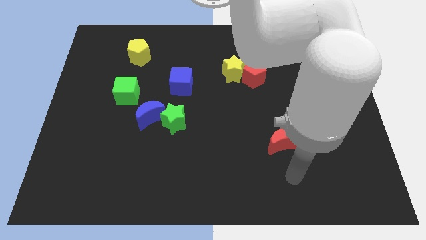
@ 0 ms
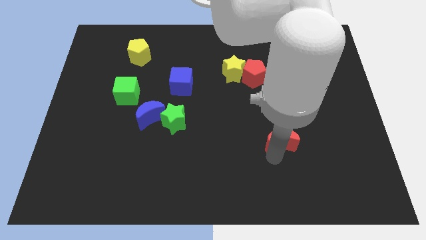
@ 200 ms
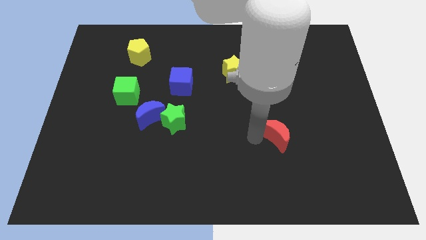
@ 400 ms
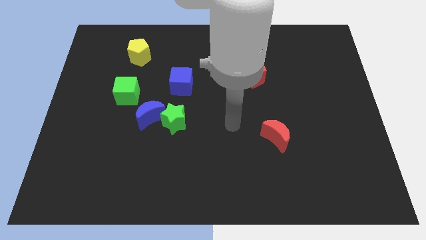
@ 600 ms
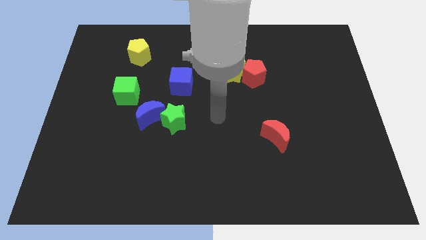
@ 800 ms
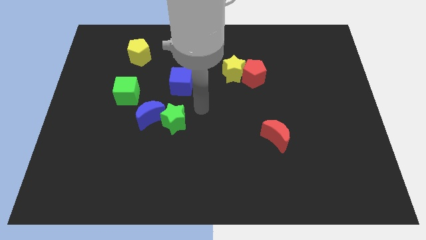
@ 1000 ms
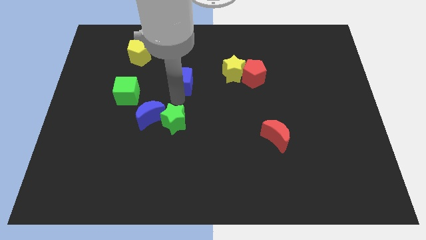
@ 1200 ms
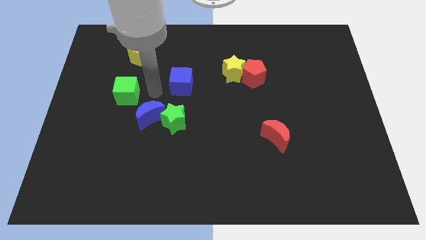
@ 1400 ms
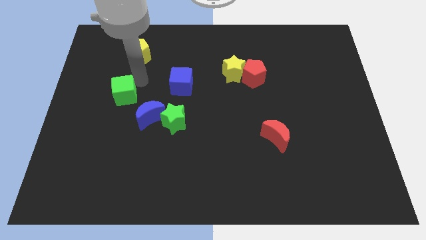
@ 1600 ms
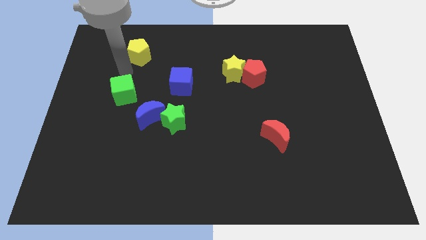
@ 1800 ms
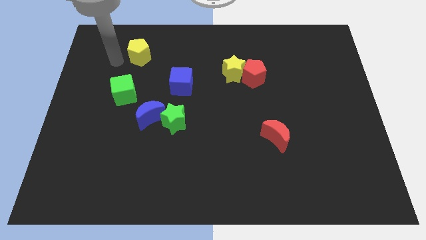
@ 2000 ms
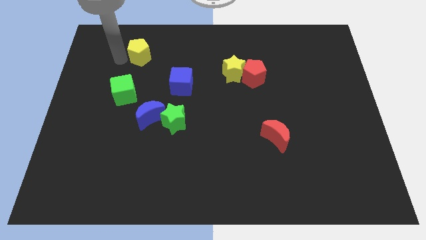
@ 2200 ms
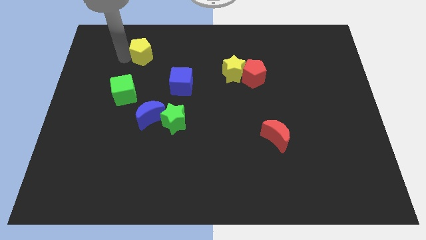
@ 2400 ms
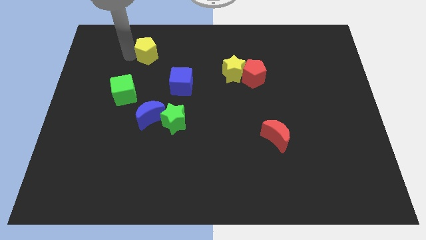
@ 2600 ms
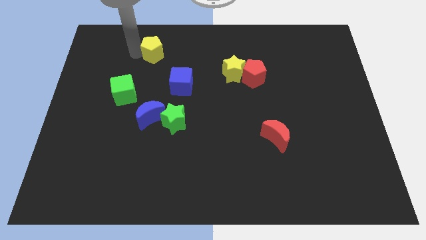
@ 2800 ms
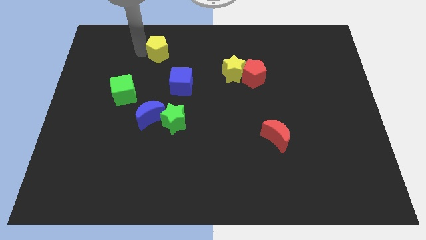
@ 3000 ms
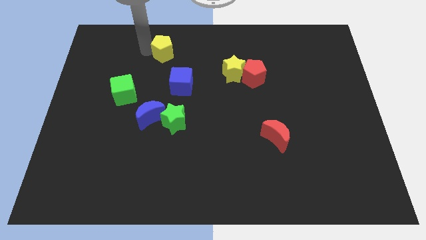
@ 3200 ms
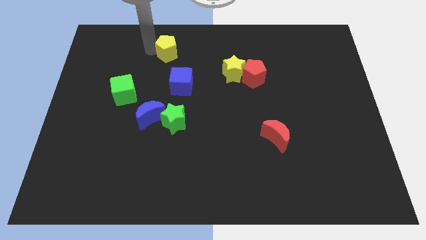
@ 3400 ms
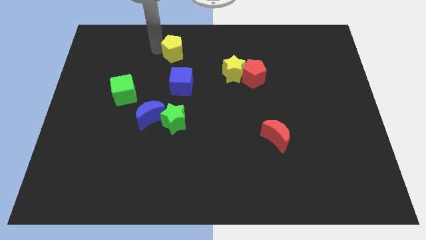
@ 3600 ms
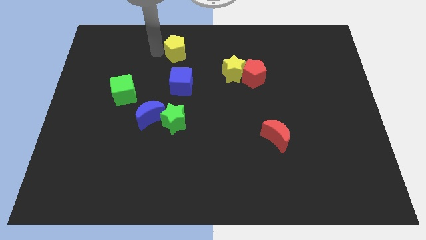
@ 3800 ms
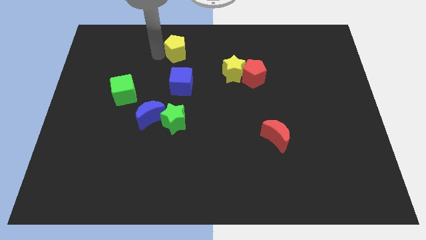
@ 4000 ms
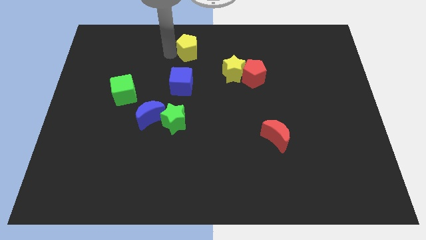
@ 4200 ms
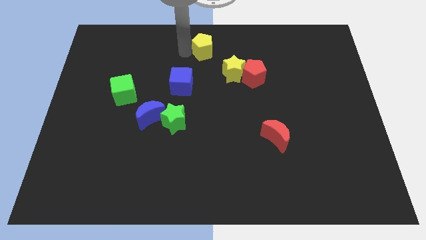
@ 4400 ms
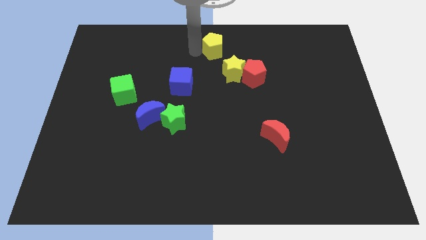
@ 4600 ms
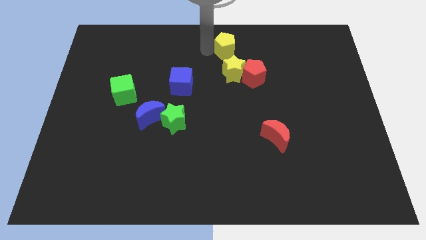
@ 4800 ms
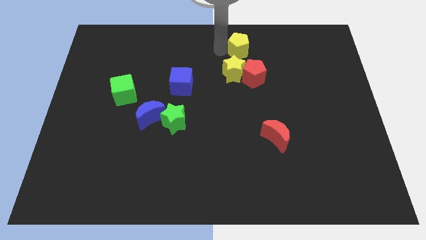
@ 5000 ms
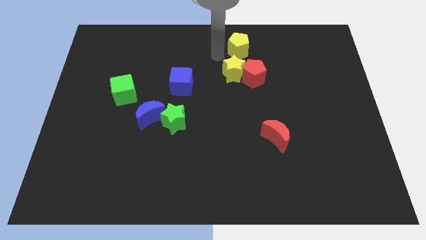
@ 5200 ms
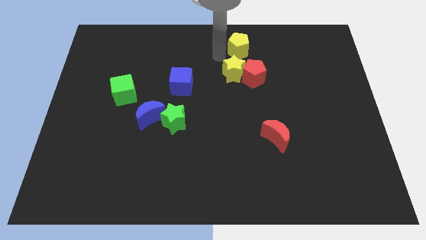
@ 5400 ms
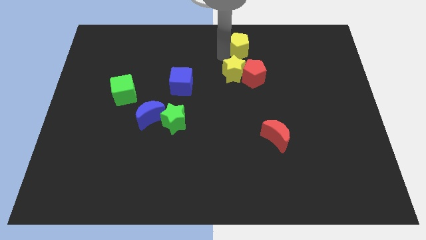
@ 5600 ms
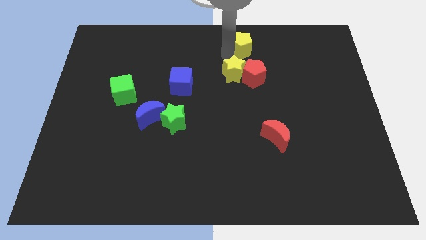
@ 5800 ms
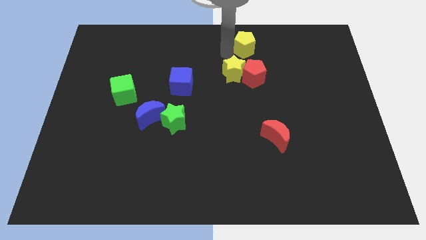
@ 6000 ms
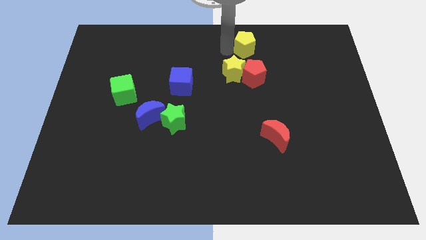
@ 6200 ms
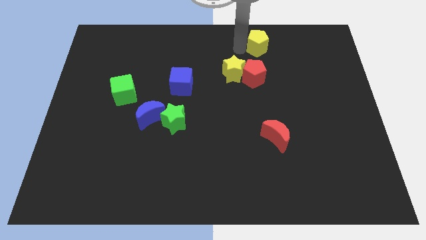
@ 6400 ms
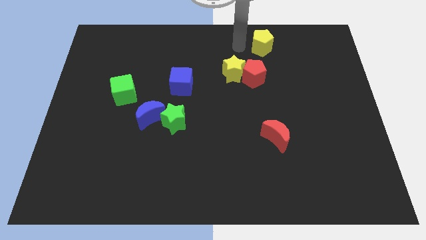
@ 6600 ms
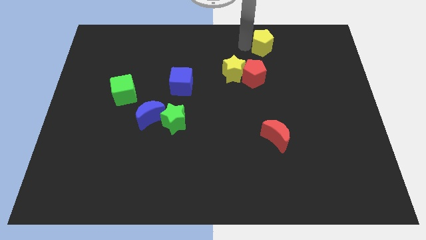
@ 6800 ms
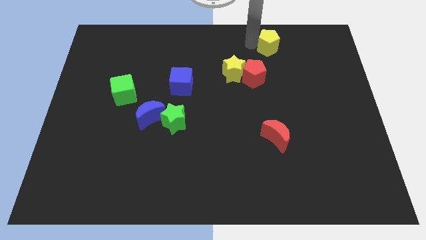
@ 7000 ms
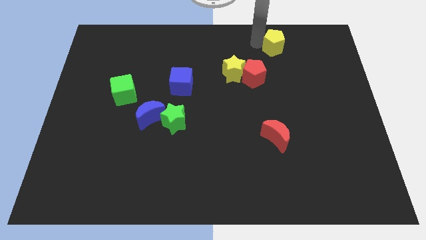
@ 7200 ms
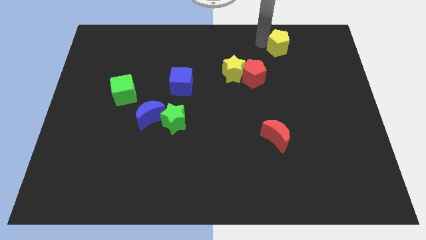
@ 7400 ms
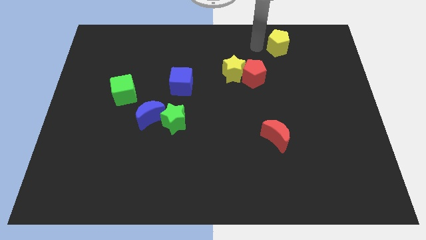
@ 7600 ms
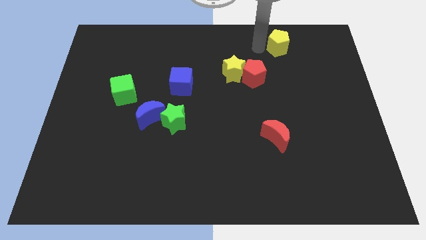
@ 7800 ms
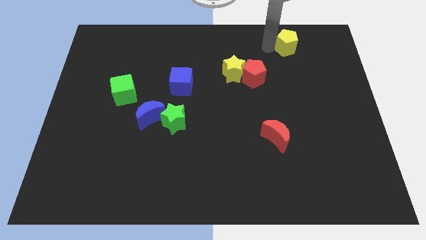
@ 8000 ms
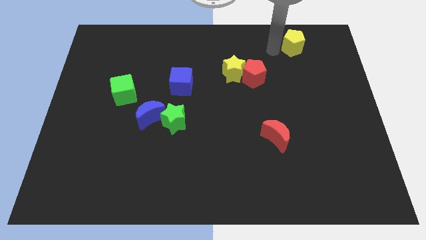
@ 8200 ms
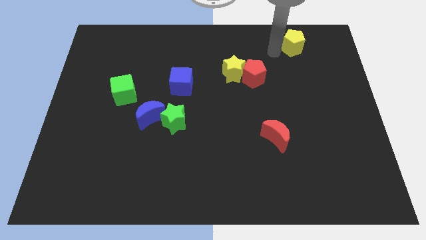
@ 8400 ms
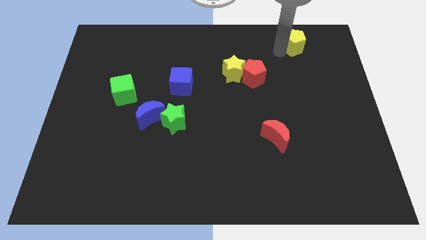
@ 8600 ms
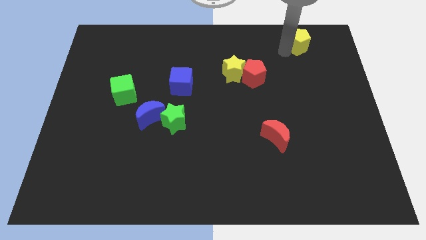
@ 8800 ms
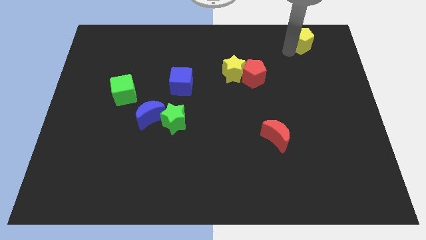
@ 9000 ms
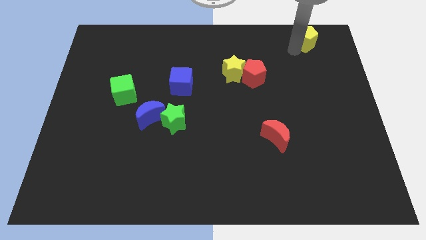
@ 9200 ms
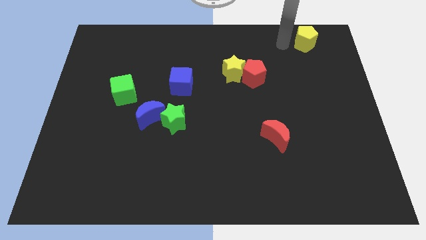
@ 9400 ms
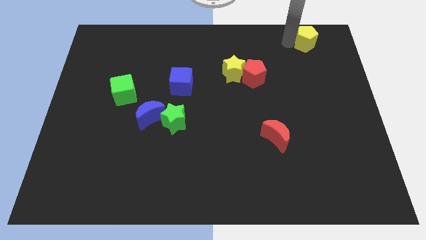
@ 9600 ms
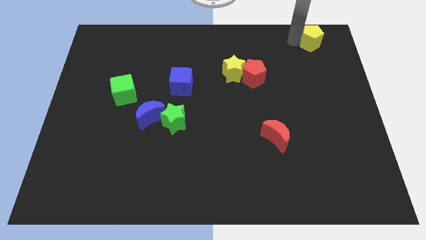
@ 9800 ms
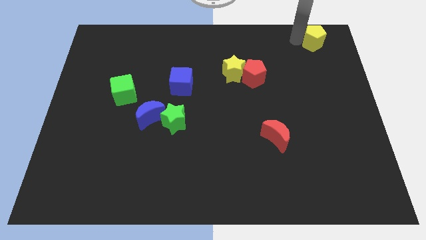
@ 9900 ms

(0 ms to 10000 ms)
put the yellow pentagon to the top right of the board

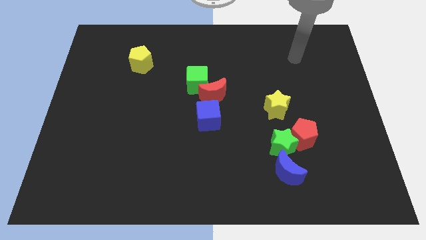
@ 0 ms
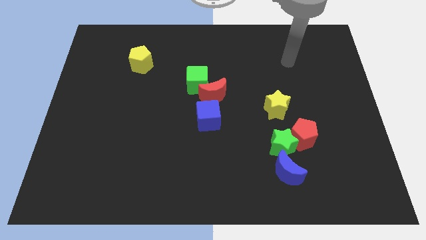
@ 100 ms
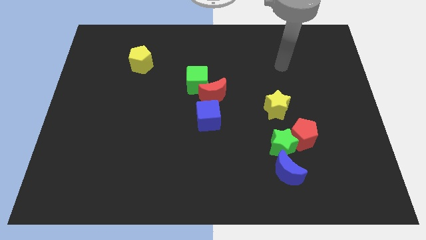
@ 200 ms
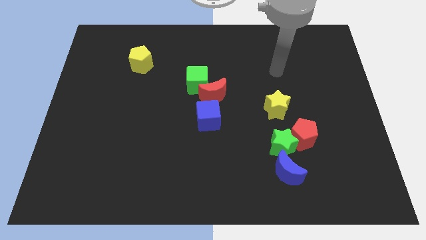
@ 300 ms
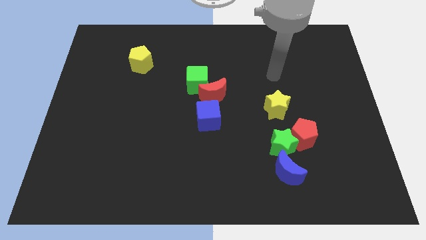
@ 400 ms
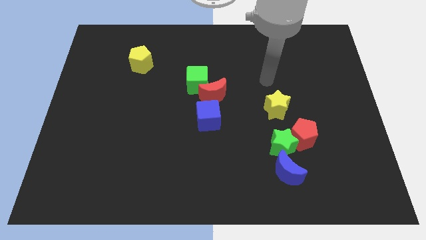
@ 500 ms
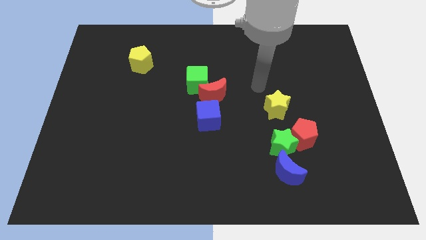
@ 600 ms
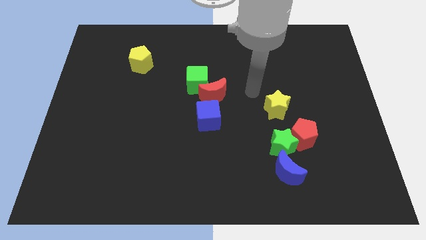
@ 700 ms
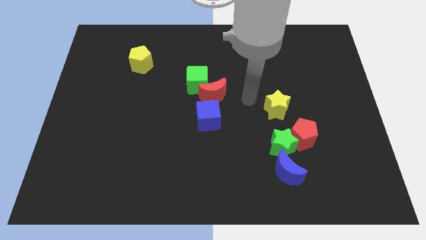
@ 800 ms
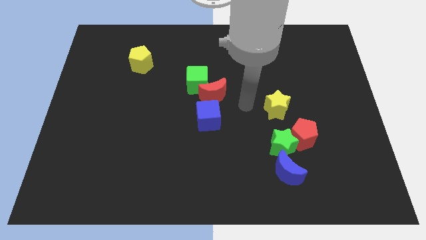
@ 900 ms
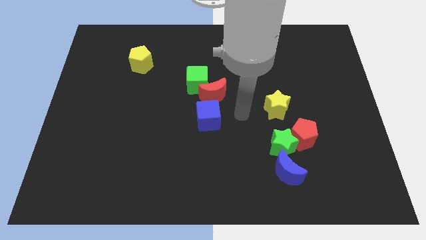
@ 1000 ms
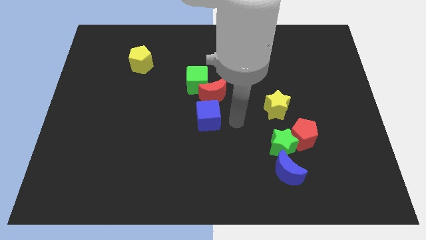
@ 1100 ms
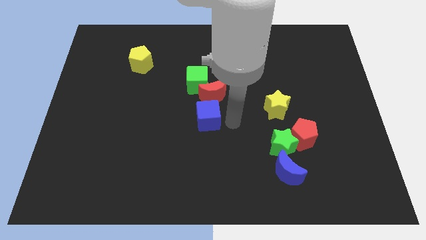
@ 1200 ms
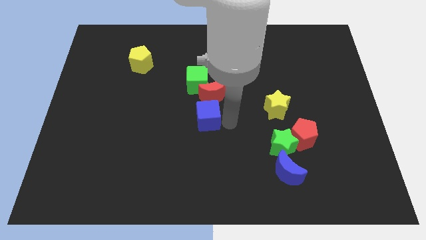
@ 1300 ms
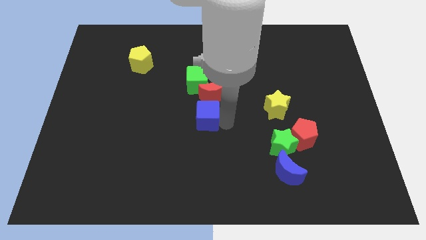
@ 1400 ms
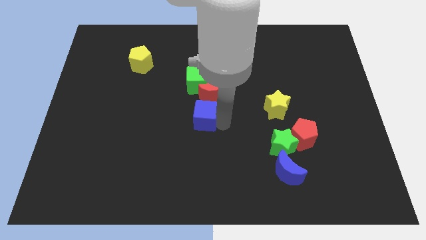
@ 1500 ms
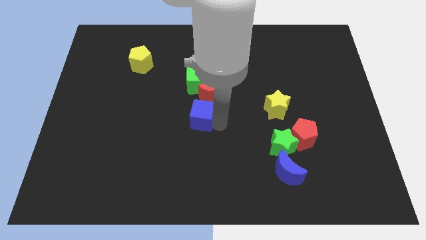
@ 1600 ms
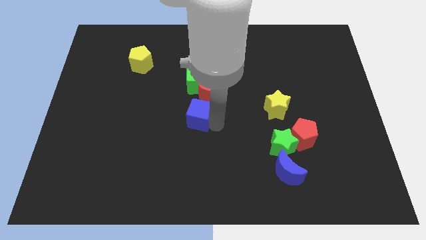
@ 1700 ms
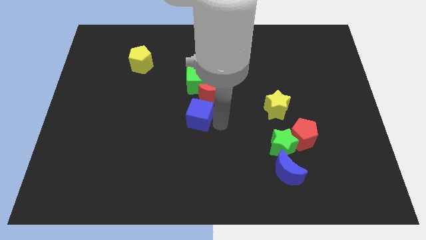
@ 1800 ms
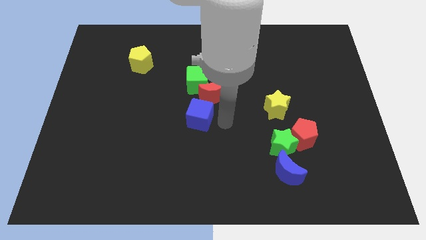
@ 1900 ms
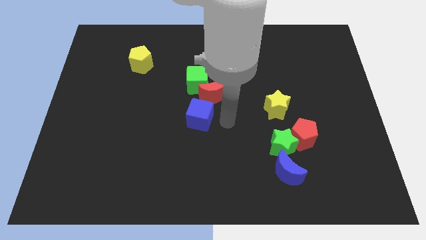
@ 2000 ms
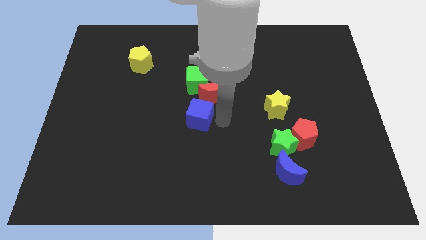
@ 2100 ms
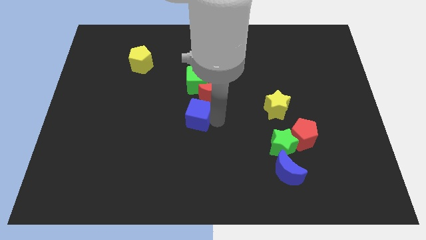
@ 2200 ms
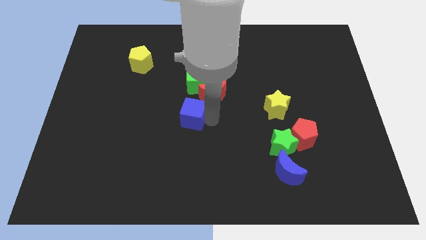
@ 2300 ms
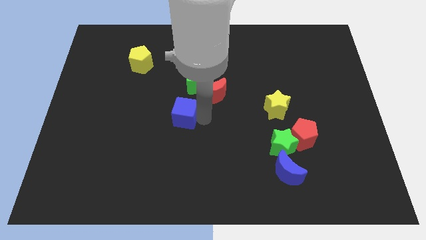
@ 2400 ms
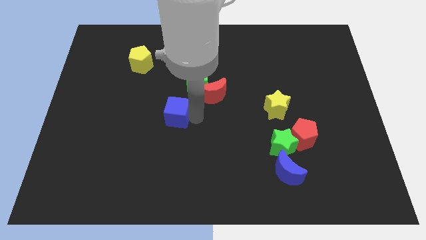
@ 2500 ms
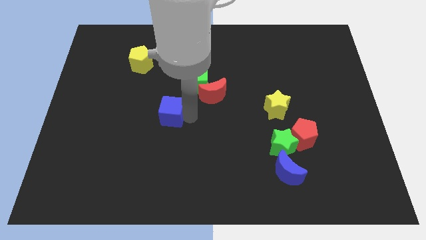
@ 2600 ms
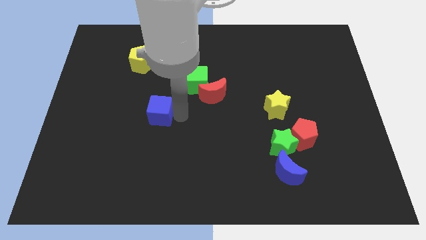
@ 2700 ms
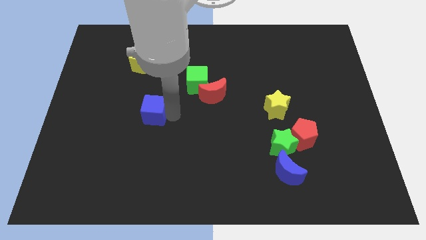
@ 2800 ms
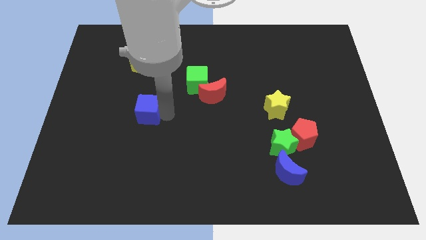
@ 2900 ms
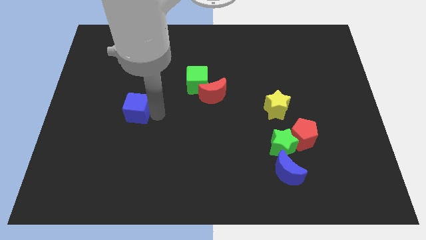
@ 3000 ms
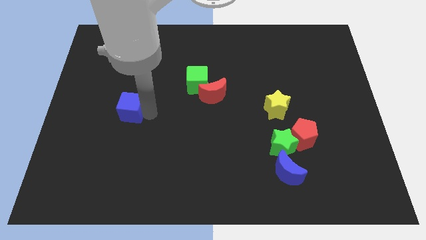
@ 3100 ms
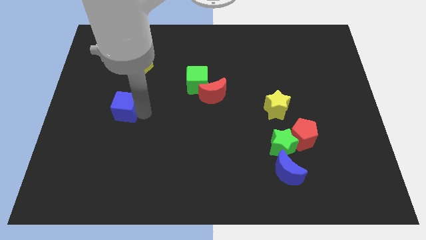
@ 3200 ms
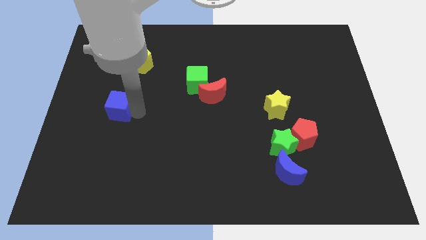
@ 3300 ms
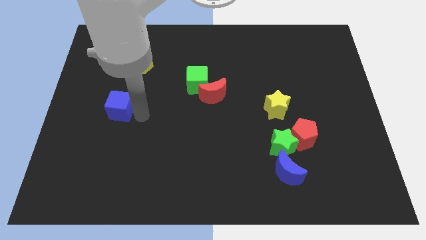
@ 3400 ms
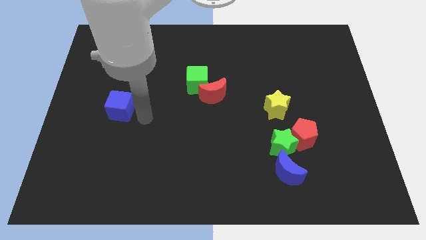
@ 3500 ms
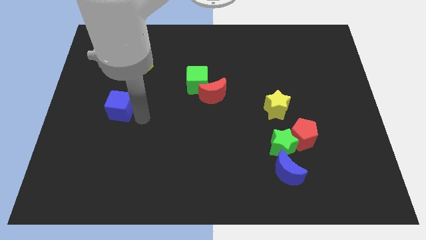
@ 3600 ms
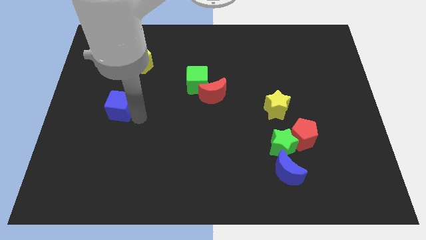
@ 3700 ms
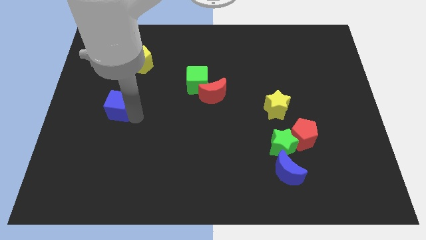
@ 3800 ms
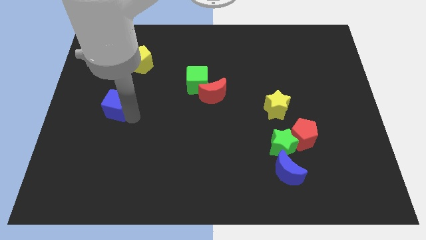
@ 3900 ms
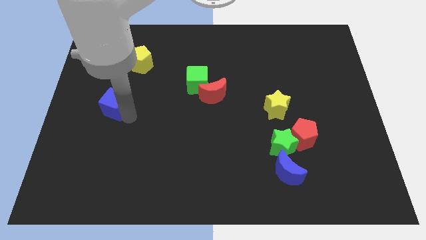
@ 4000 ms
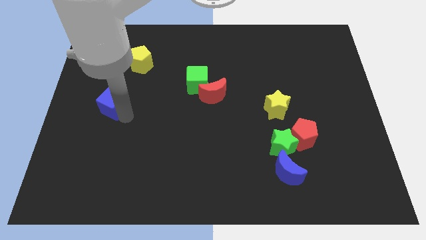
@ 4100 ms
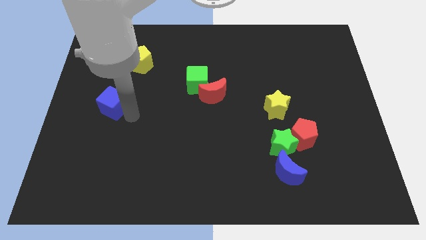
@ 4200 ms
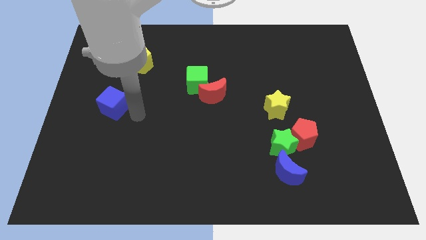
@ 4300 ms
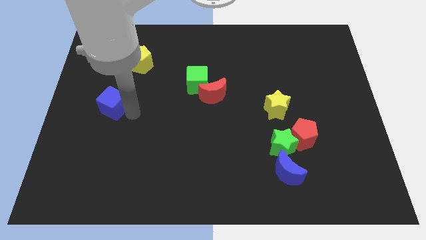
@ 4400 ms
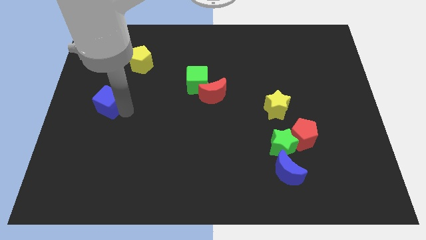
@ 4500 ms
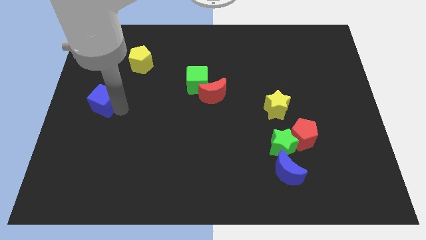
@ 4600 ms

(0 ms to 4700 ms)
push the blue cube to the left side of the board
